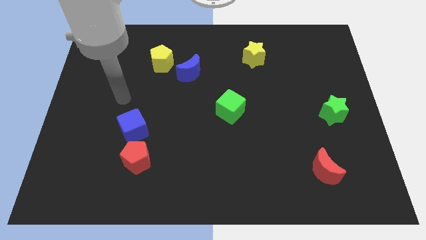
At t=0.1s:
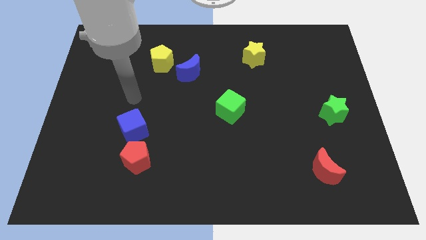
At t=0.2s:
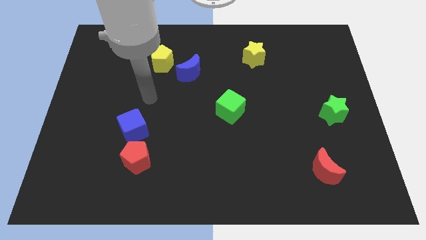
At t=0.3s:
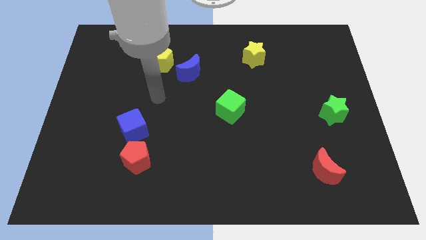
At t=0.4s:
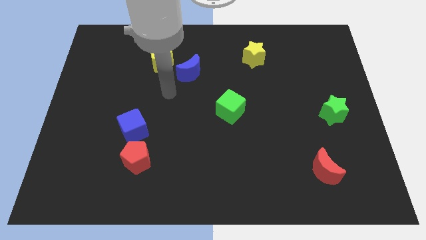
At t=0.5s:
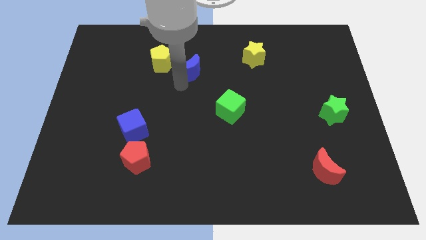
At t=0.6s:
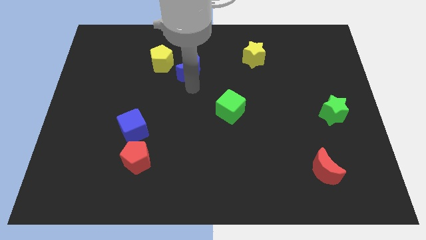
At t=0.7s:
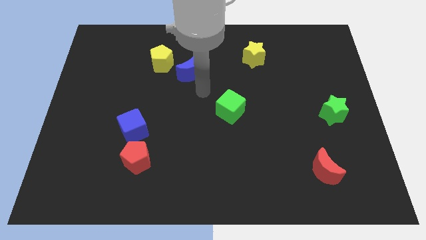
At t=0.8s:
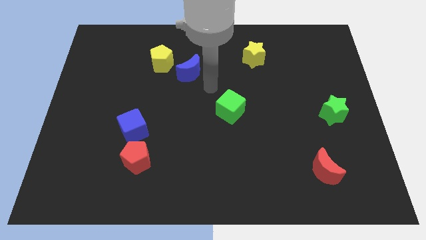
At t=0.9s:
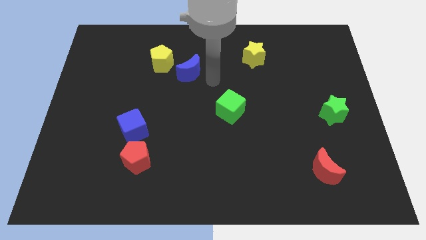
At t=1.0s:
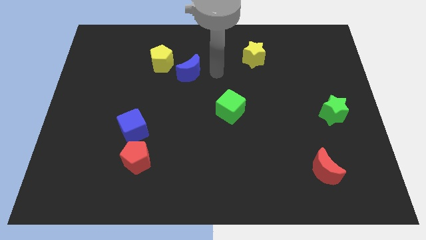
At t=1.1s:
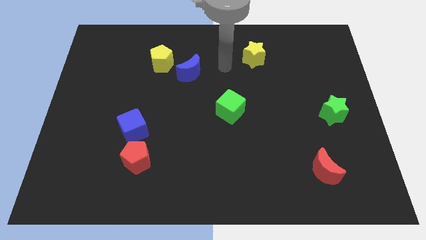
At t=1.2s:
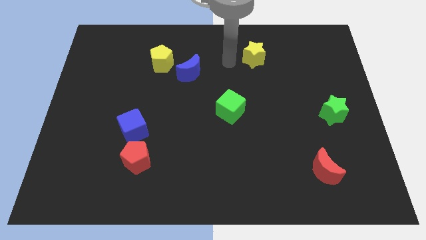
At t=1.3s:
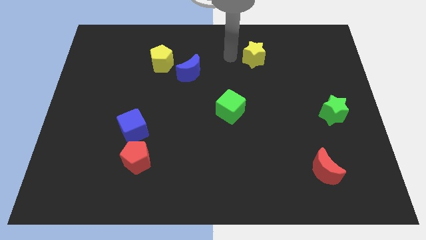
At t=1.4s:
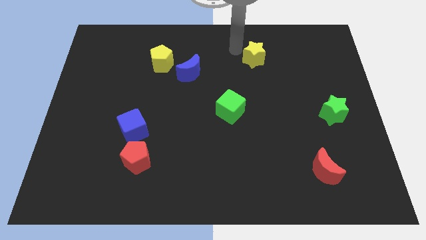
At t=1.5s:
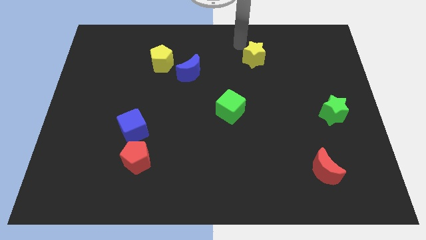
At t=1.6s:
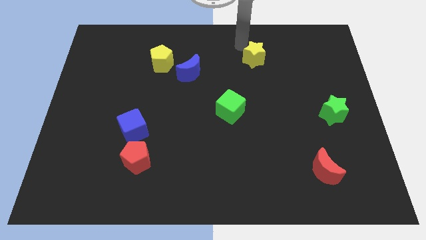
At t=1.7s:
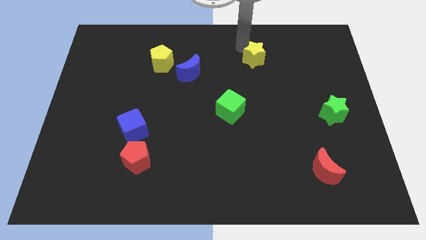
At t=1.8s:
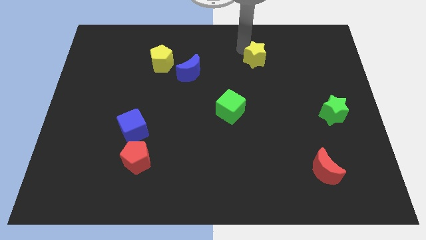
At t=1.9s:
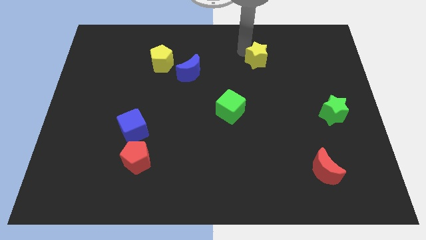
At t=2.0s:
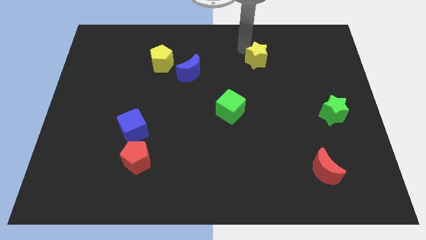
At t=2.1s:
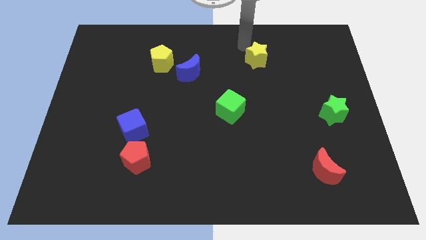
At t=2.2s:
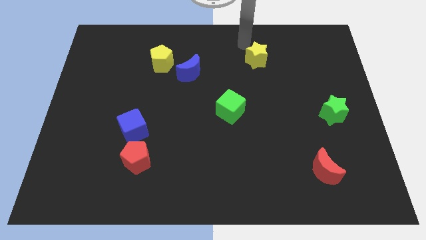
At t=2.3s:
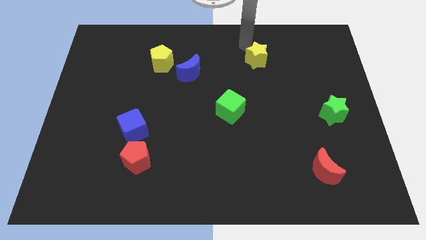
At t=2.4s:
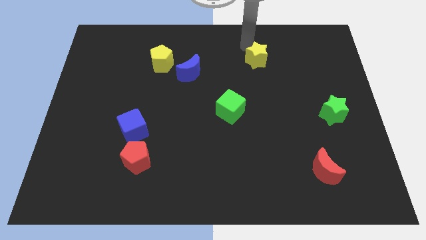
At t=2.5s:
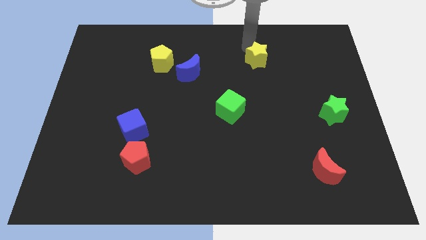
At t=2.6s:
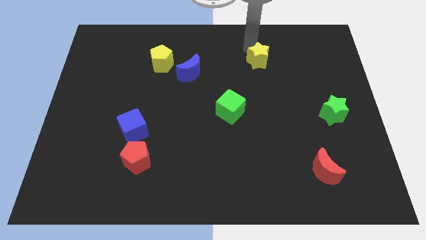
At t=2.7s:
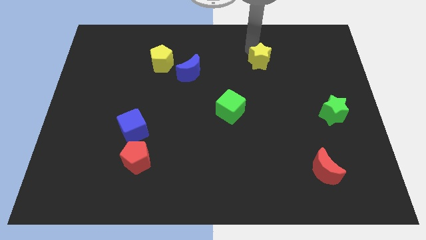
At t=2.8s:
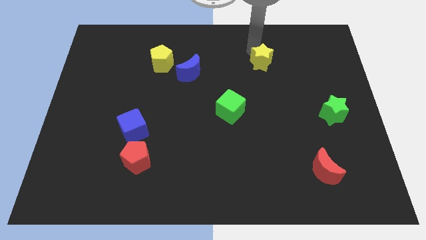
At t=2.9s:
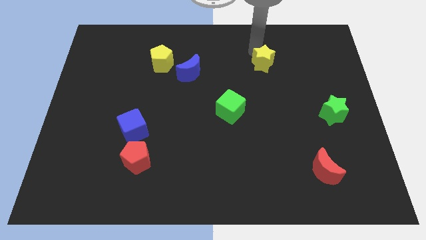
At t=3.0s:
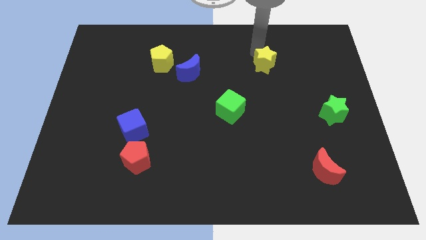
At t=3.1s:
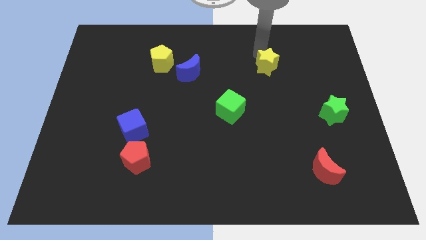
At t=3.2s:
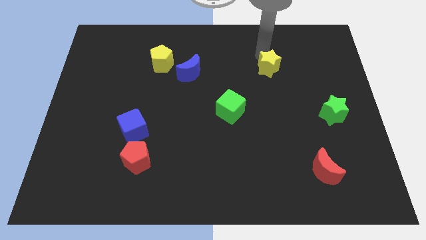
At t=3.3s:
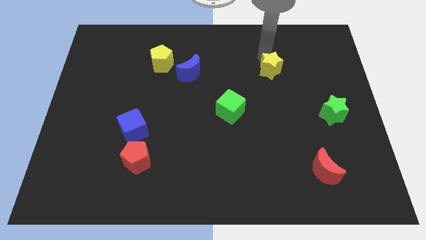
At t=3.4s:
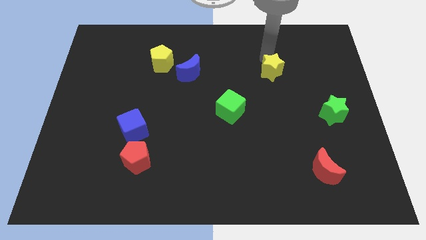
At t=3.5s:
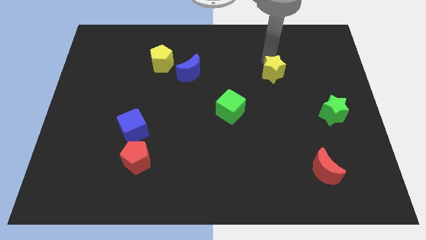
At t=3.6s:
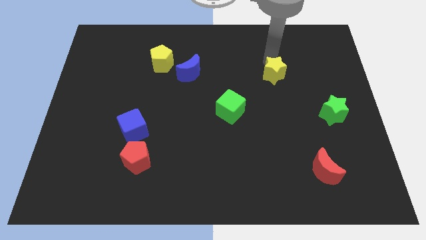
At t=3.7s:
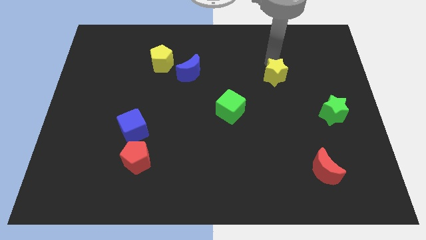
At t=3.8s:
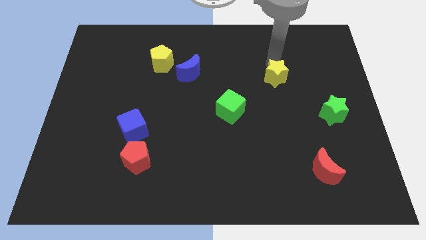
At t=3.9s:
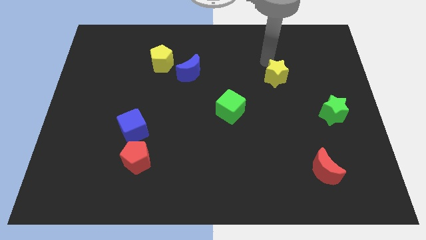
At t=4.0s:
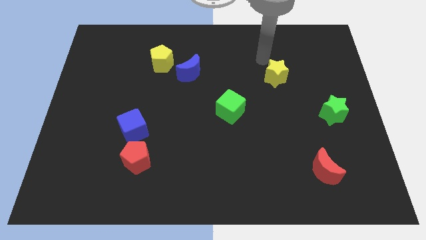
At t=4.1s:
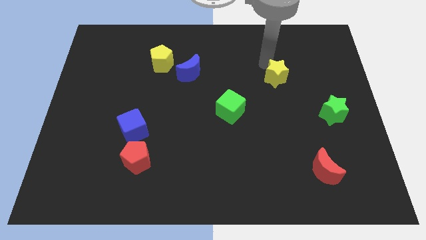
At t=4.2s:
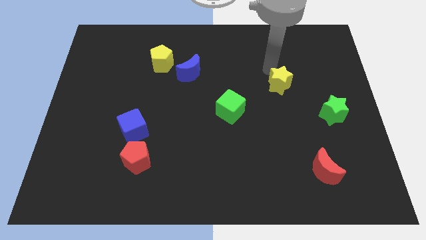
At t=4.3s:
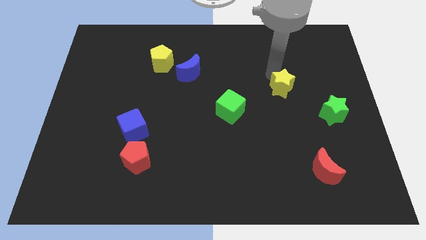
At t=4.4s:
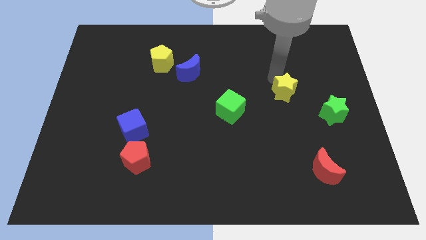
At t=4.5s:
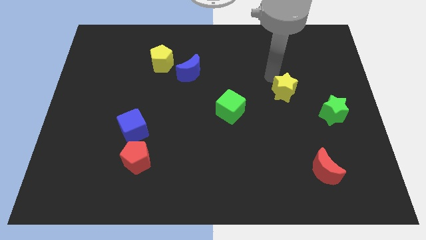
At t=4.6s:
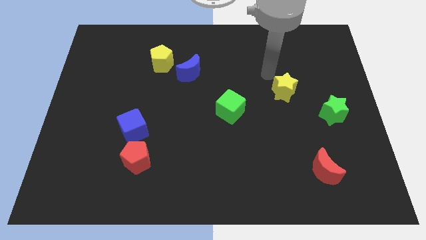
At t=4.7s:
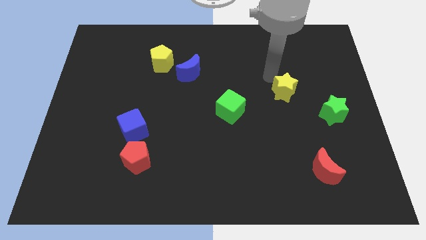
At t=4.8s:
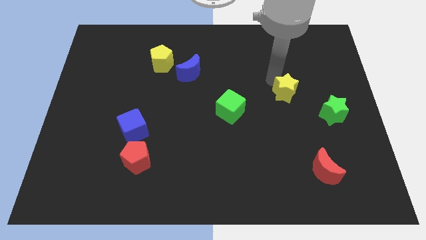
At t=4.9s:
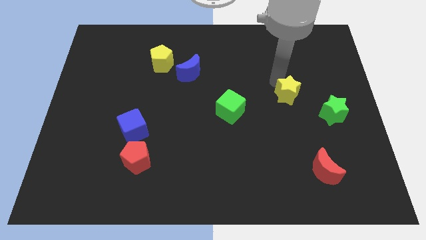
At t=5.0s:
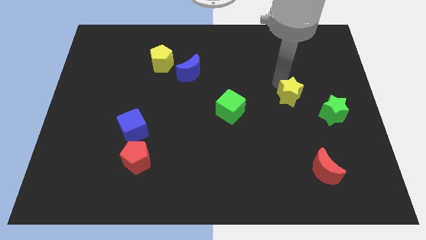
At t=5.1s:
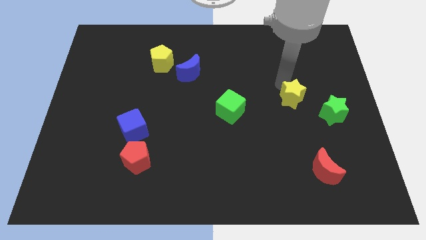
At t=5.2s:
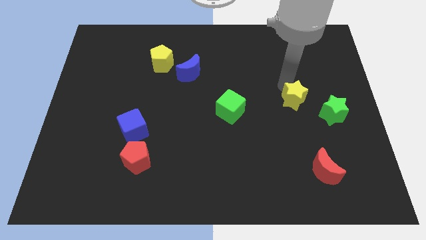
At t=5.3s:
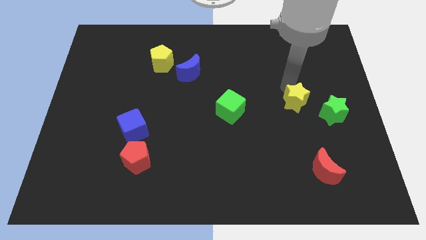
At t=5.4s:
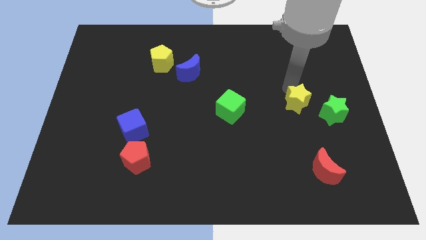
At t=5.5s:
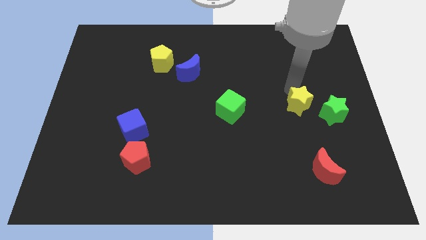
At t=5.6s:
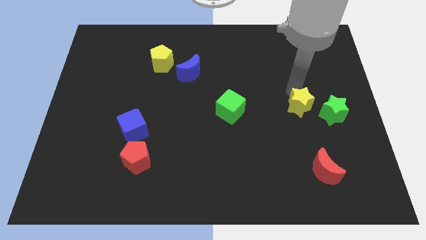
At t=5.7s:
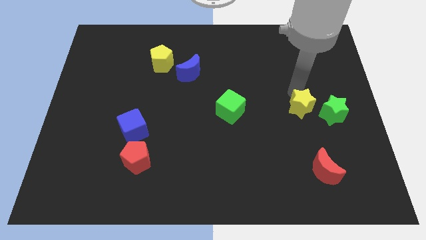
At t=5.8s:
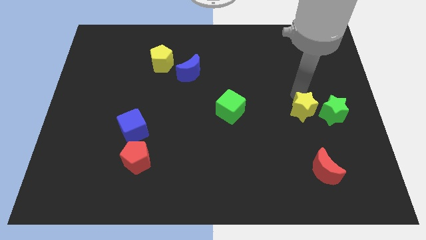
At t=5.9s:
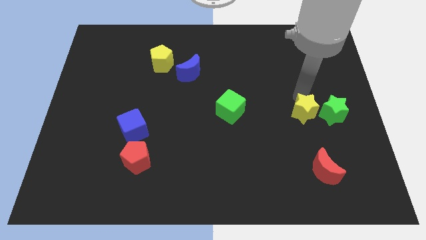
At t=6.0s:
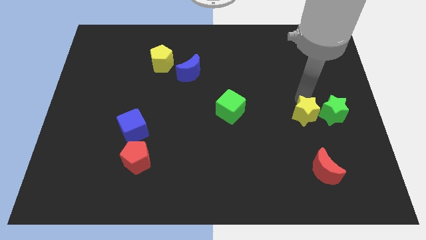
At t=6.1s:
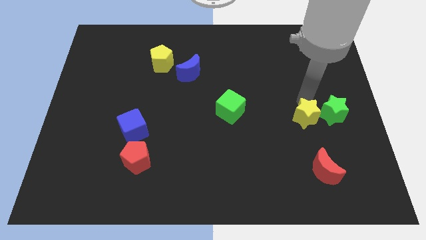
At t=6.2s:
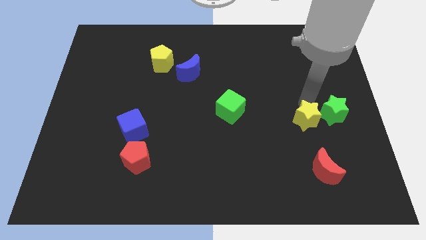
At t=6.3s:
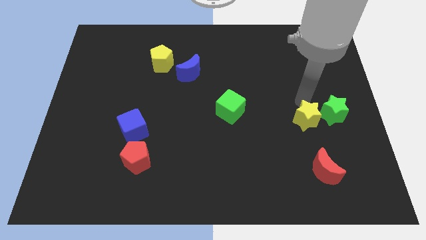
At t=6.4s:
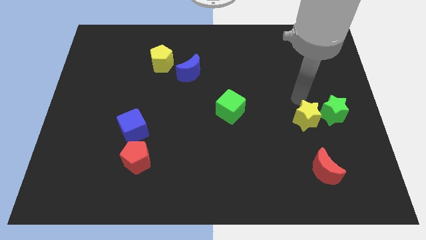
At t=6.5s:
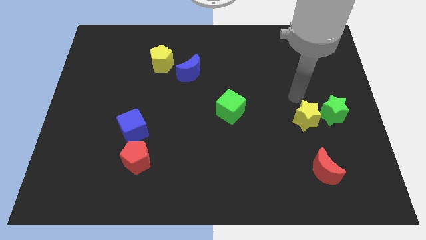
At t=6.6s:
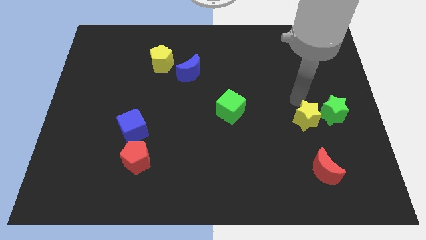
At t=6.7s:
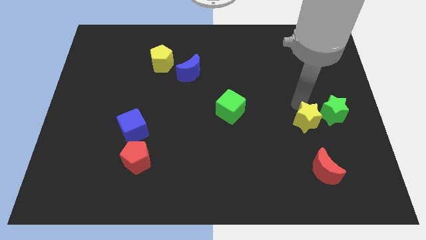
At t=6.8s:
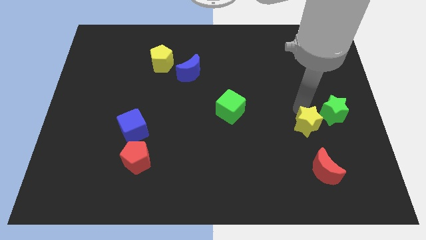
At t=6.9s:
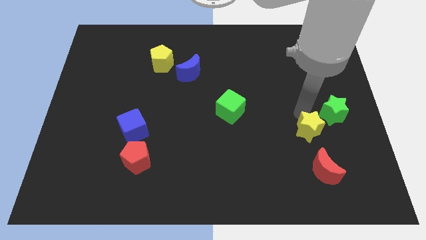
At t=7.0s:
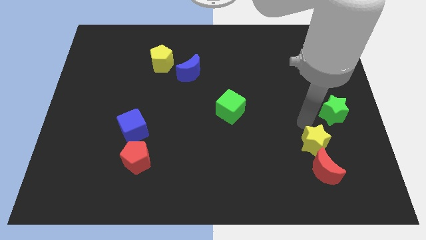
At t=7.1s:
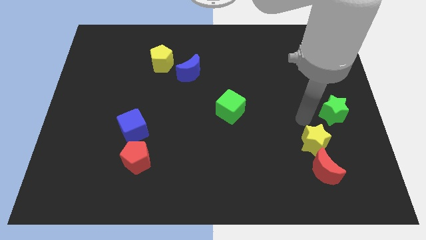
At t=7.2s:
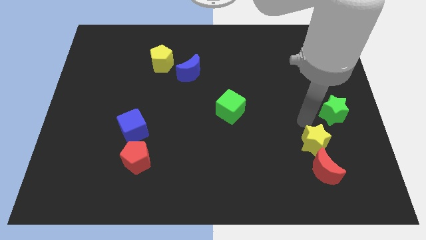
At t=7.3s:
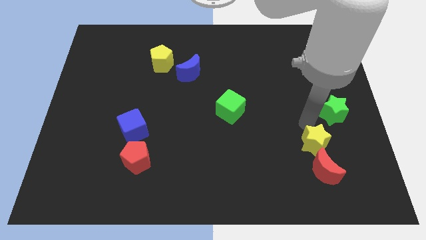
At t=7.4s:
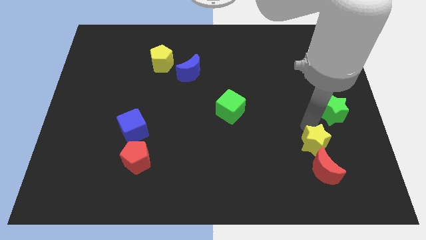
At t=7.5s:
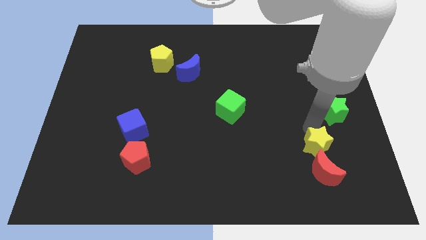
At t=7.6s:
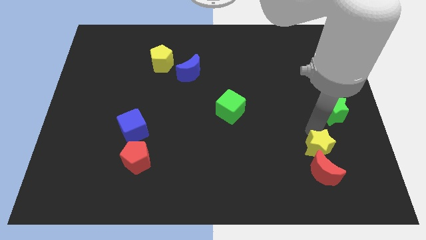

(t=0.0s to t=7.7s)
push the yellow star close to the red moon
